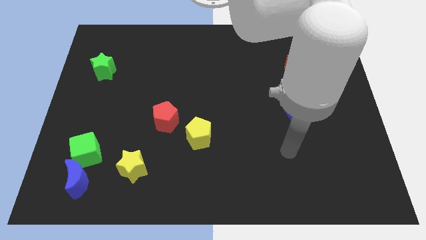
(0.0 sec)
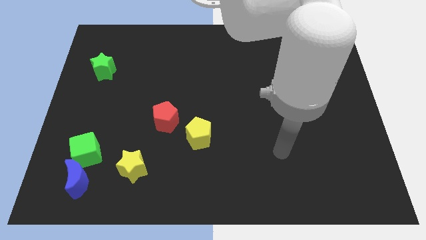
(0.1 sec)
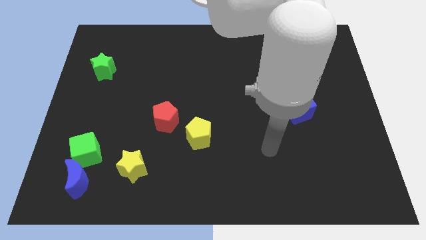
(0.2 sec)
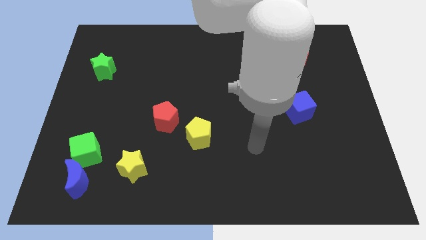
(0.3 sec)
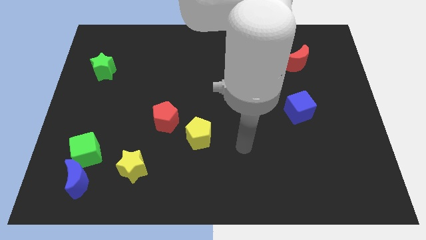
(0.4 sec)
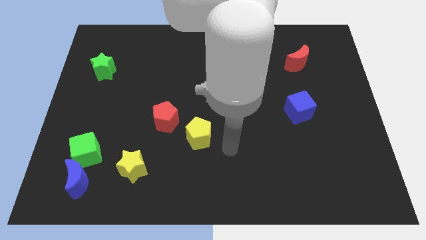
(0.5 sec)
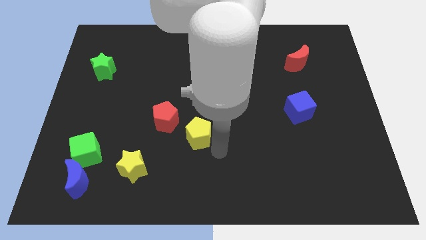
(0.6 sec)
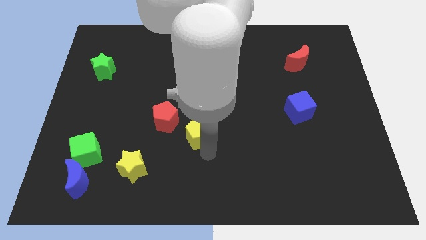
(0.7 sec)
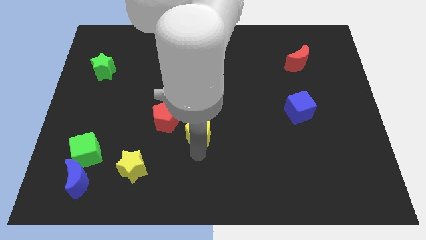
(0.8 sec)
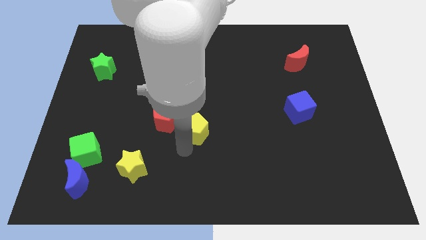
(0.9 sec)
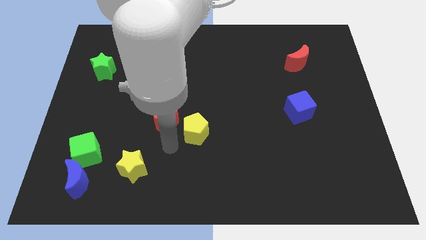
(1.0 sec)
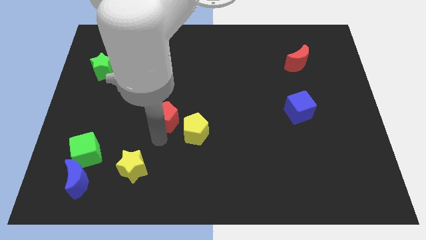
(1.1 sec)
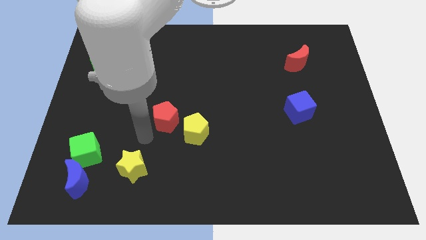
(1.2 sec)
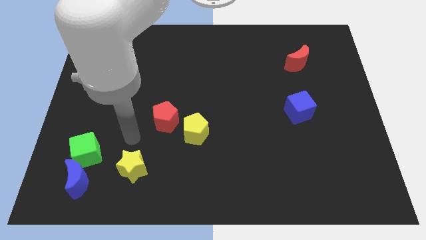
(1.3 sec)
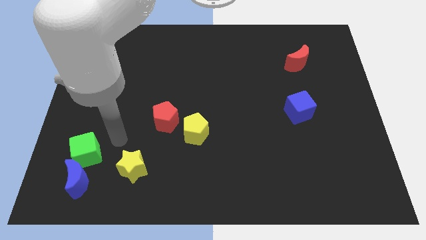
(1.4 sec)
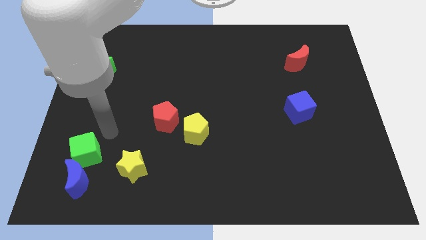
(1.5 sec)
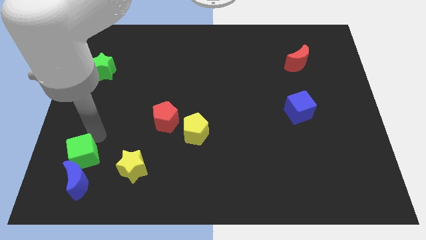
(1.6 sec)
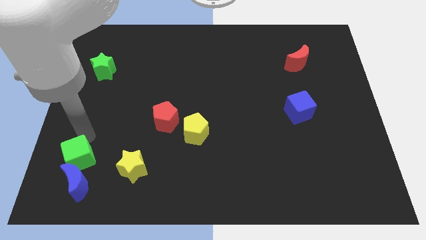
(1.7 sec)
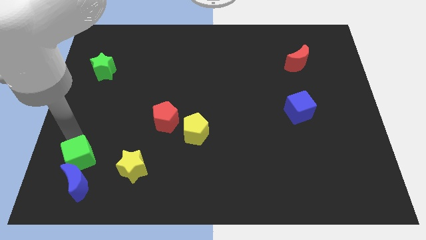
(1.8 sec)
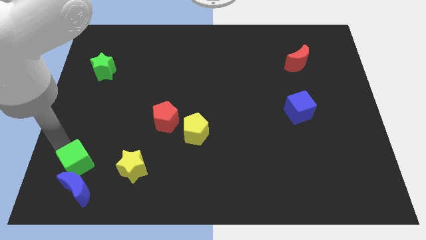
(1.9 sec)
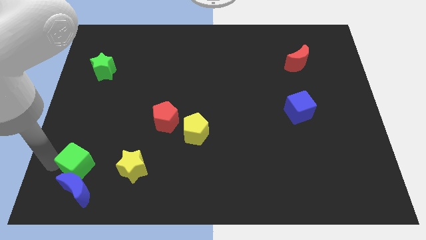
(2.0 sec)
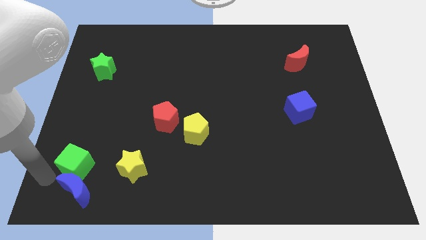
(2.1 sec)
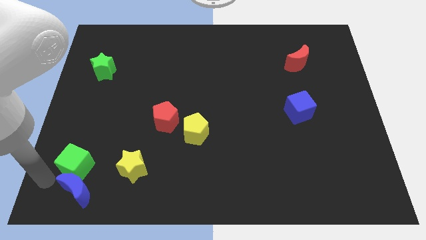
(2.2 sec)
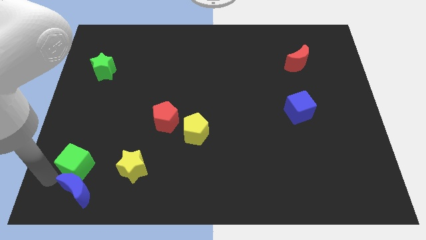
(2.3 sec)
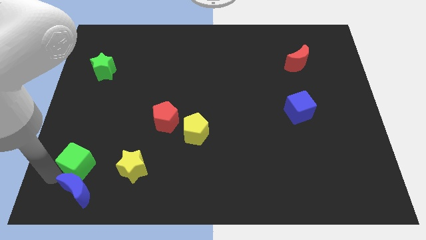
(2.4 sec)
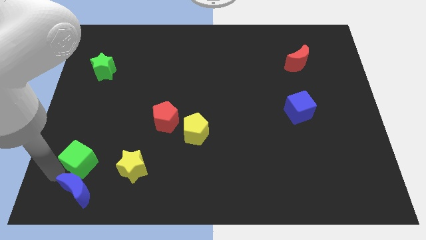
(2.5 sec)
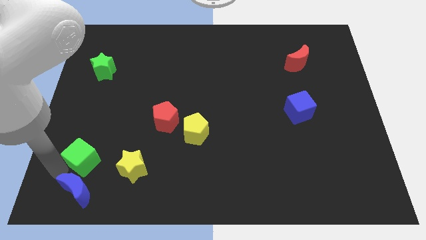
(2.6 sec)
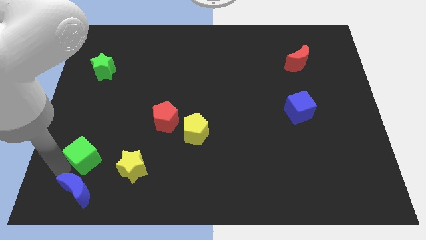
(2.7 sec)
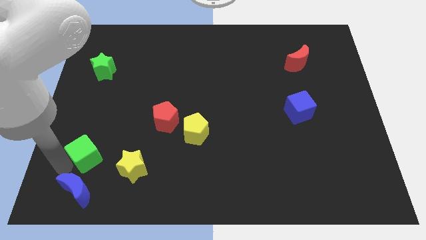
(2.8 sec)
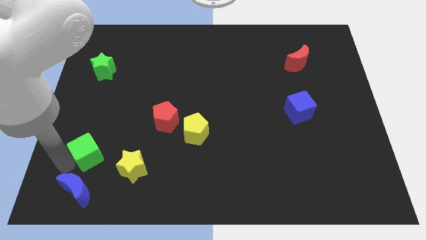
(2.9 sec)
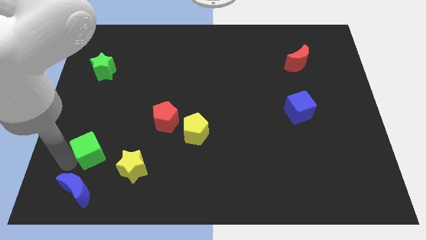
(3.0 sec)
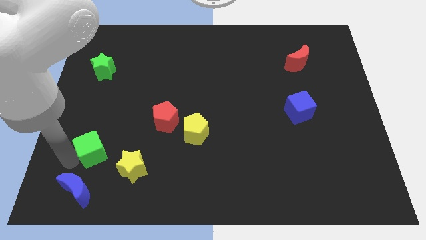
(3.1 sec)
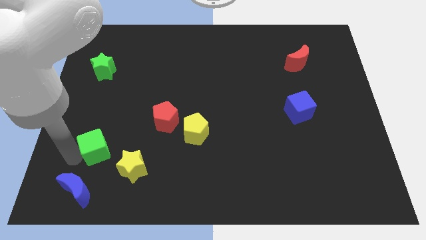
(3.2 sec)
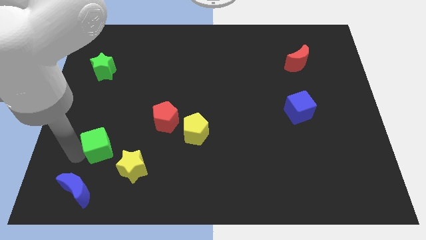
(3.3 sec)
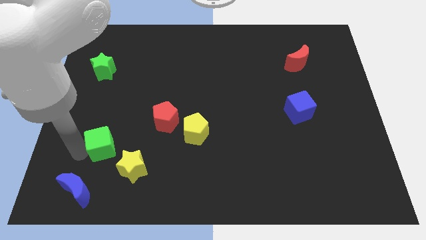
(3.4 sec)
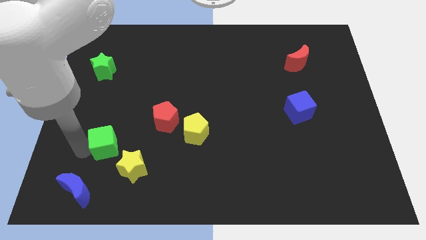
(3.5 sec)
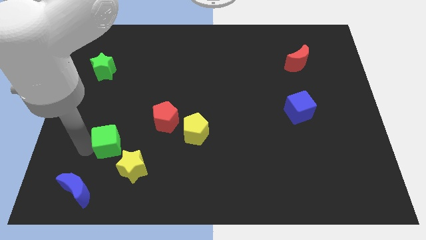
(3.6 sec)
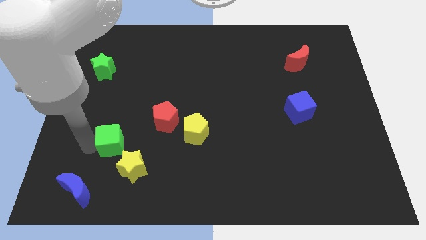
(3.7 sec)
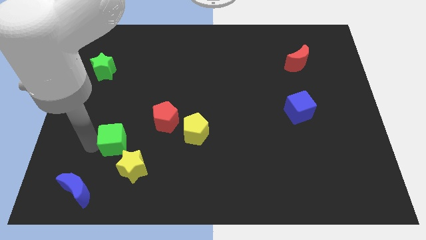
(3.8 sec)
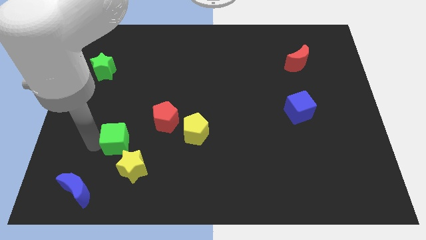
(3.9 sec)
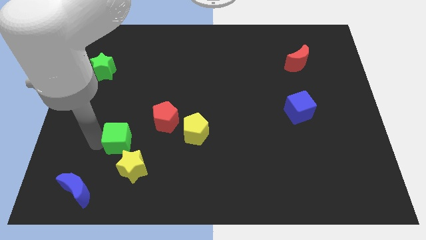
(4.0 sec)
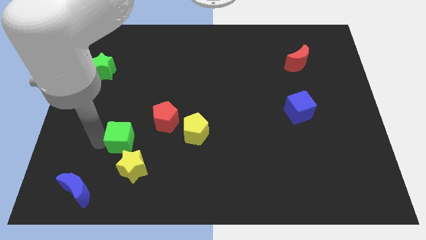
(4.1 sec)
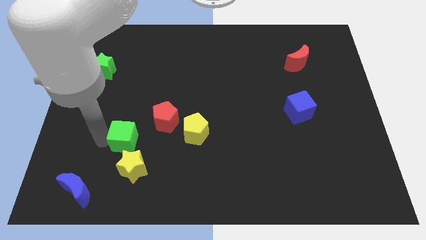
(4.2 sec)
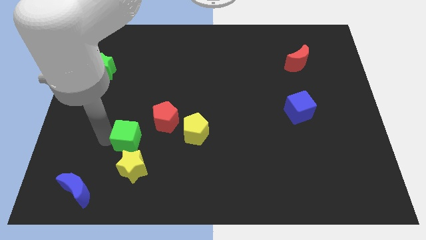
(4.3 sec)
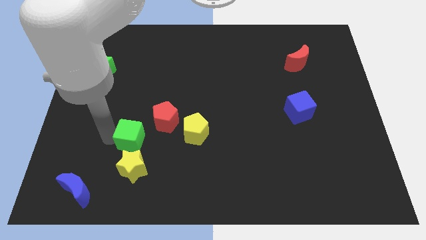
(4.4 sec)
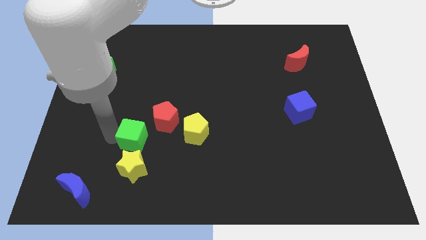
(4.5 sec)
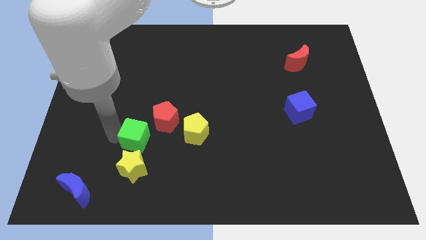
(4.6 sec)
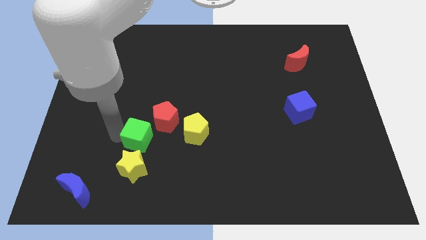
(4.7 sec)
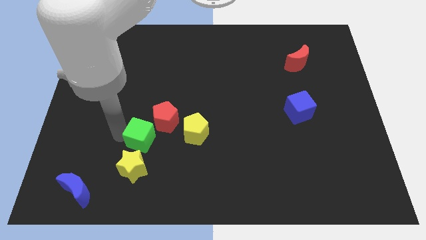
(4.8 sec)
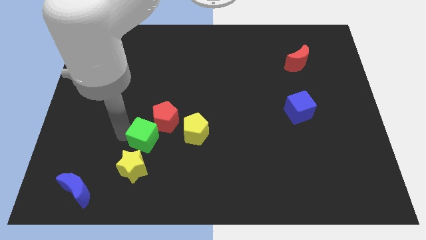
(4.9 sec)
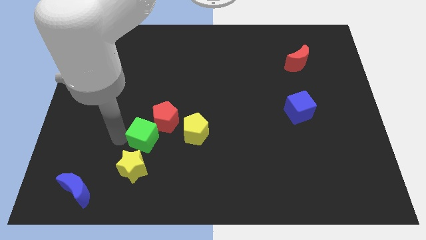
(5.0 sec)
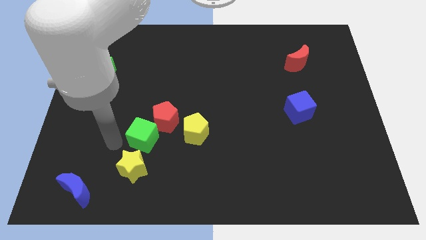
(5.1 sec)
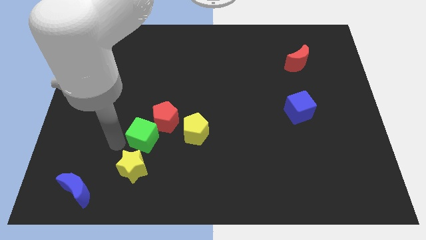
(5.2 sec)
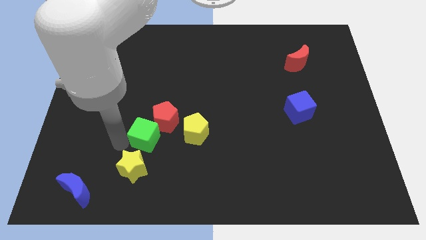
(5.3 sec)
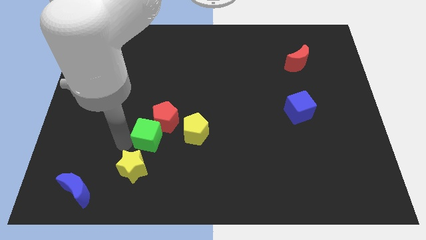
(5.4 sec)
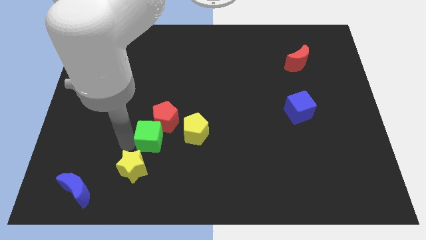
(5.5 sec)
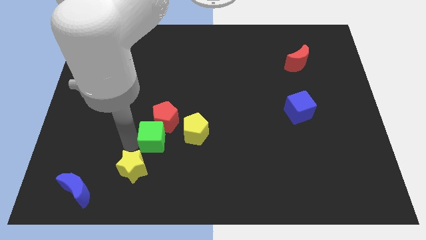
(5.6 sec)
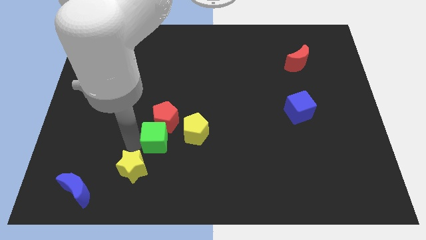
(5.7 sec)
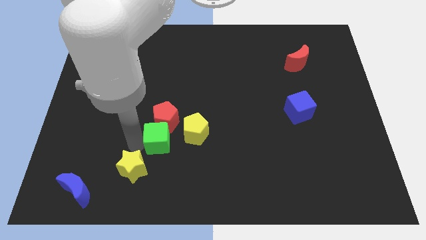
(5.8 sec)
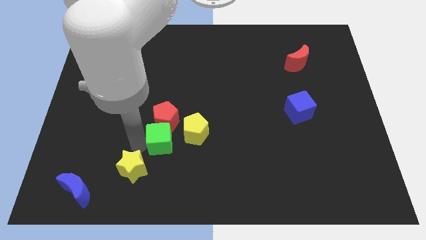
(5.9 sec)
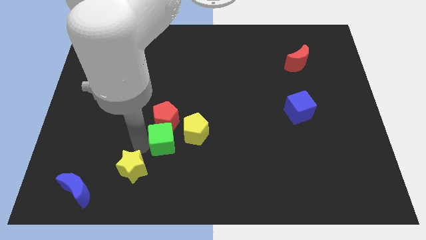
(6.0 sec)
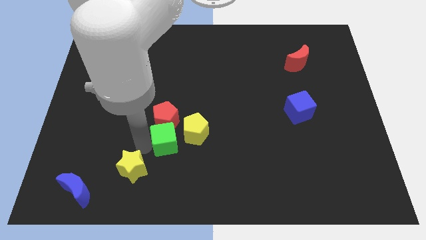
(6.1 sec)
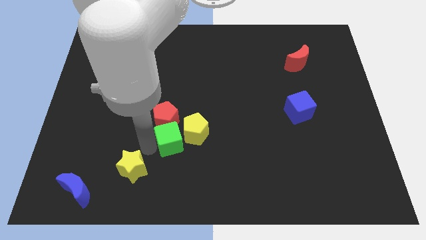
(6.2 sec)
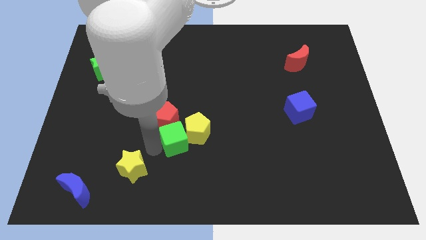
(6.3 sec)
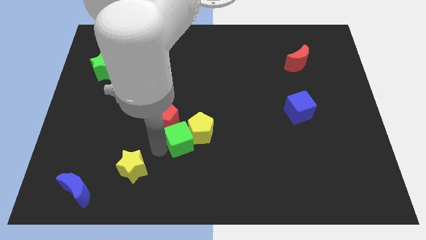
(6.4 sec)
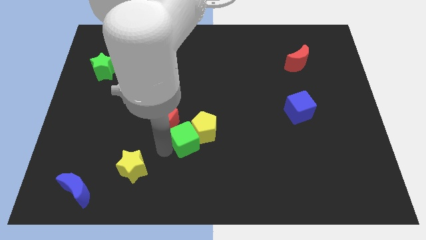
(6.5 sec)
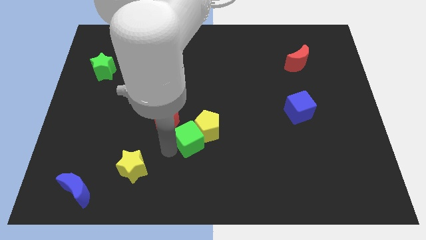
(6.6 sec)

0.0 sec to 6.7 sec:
put the green cube to the center of the board
